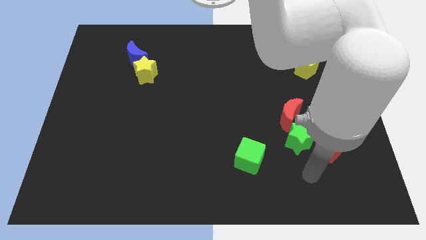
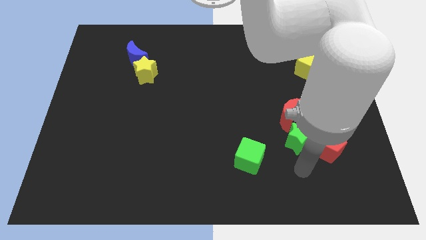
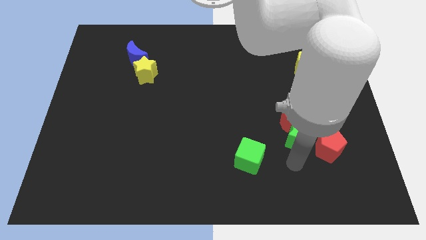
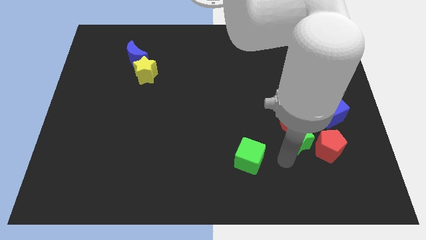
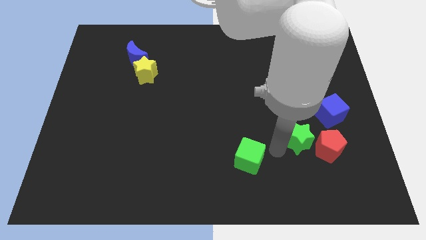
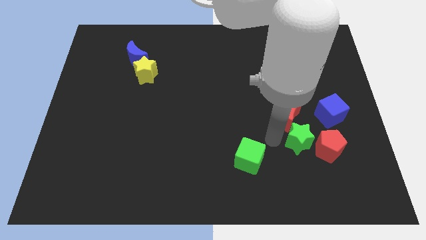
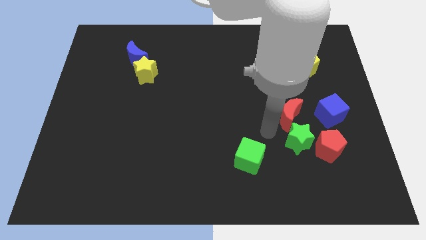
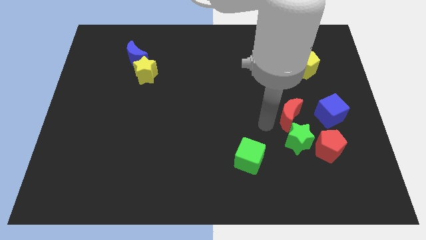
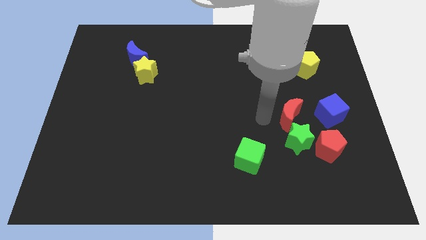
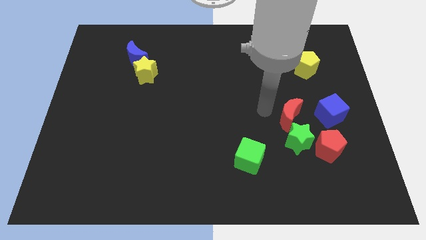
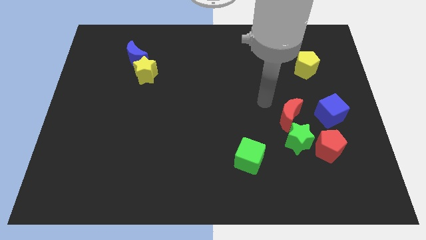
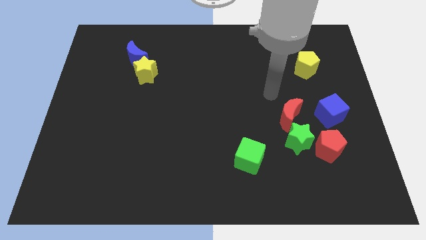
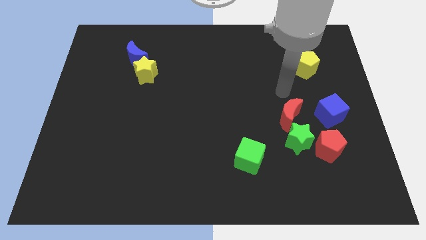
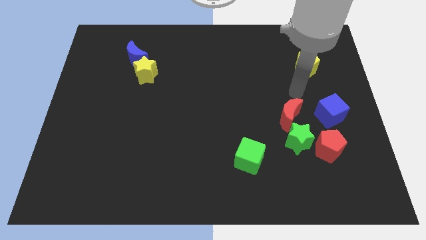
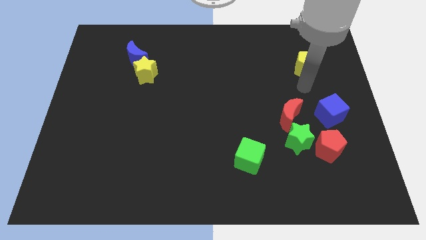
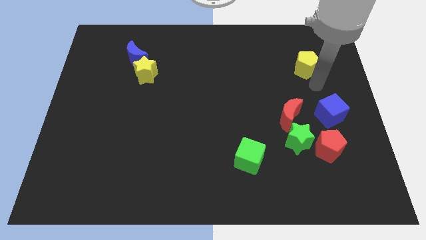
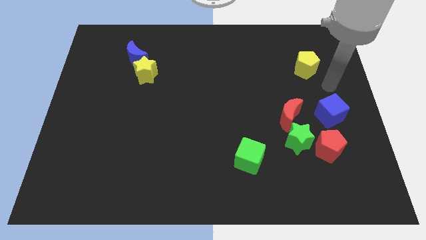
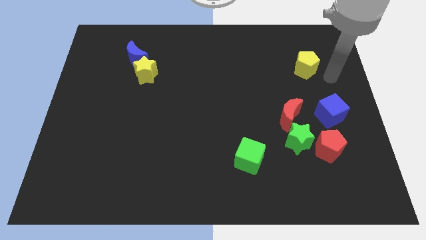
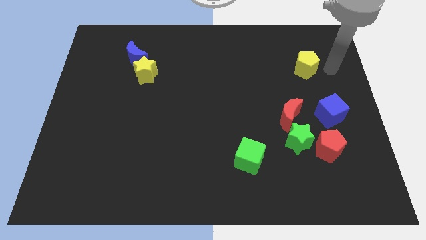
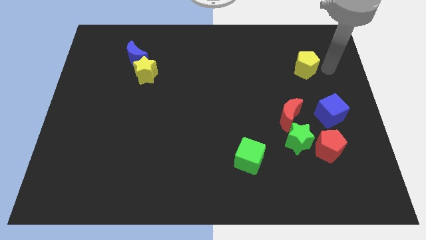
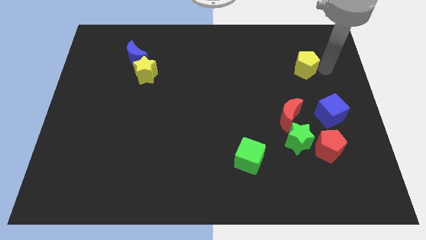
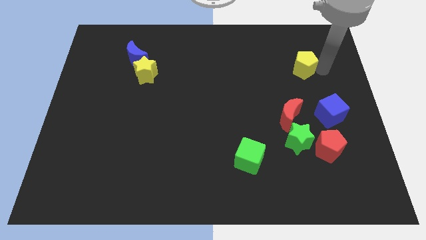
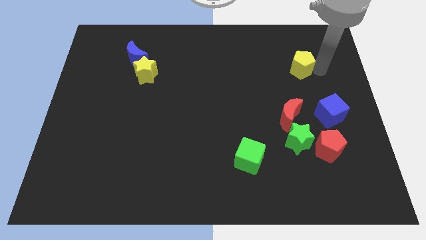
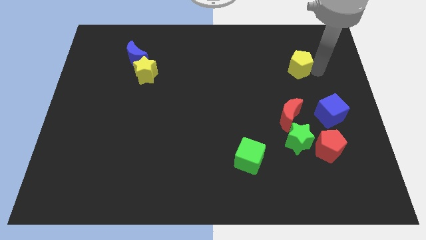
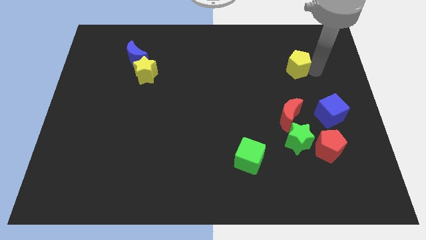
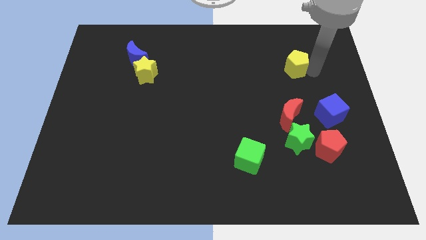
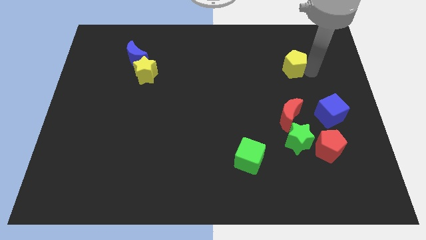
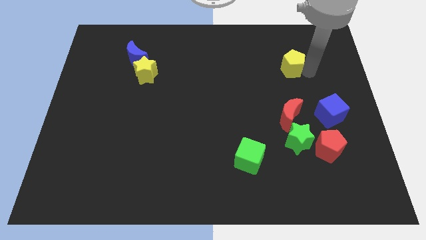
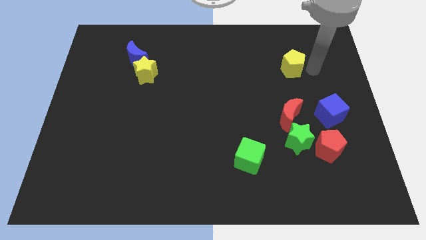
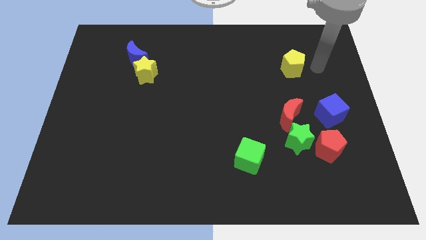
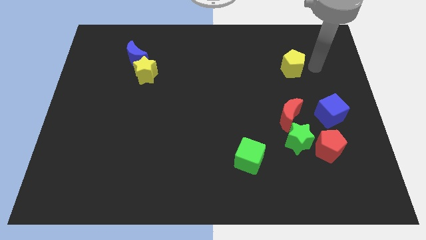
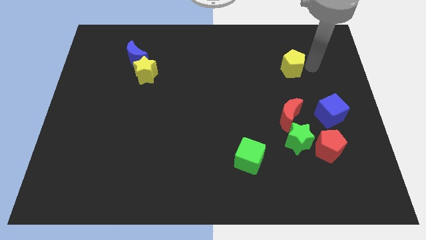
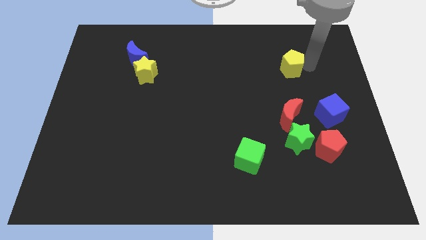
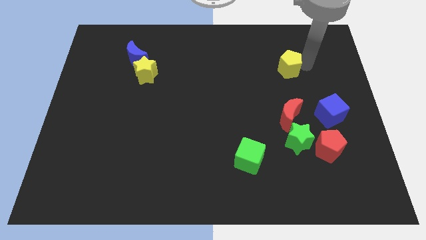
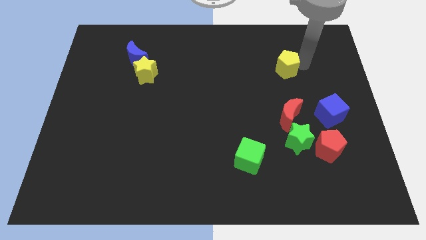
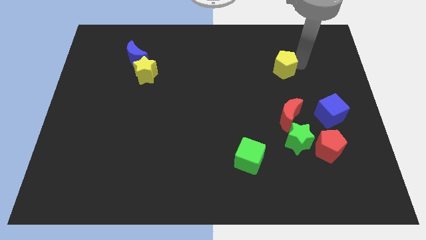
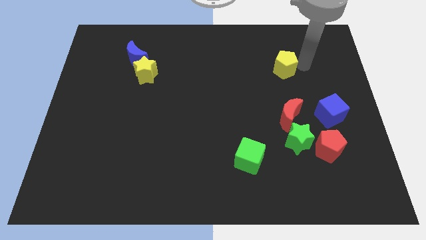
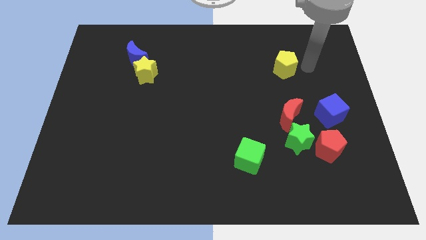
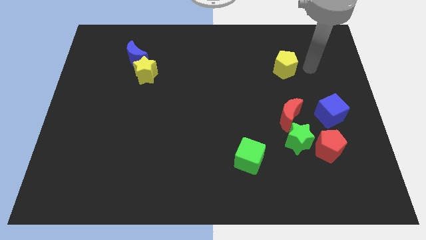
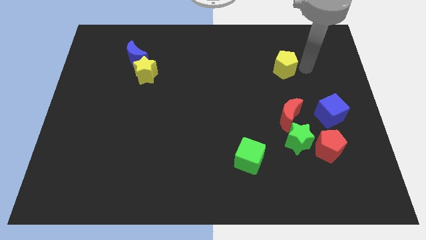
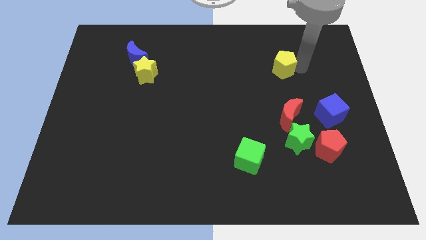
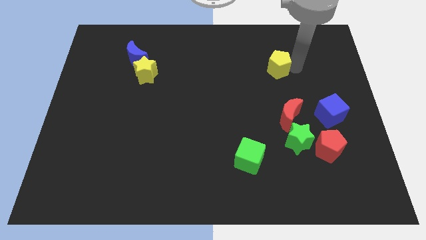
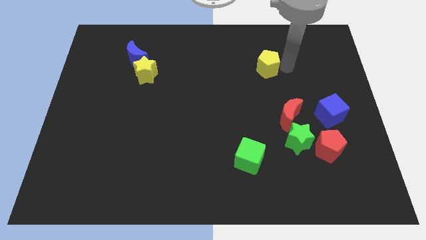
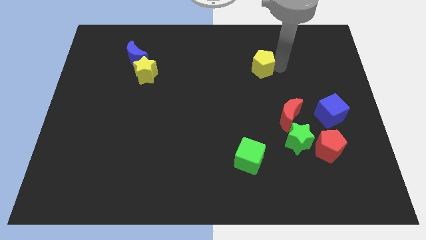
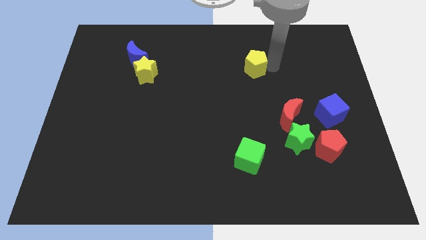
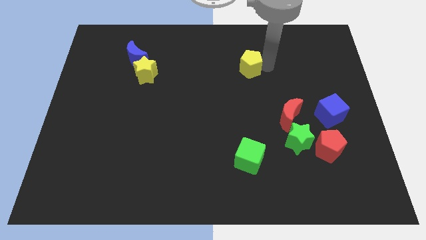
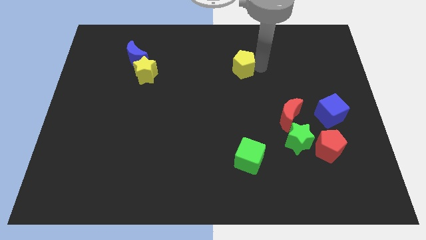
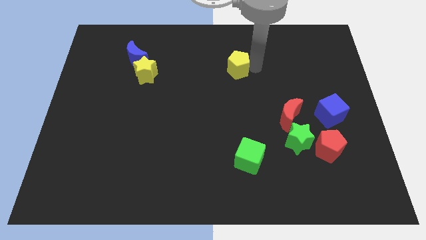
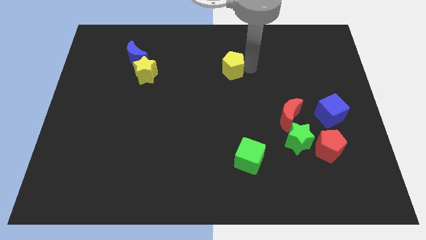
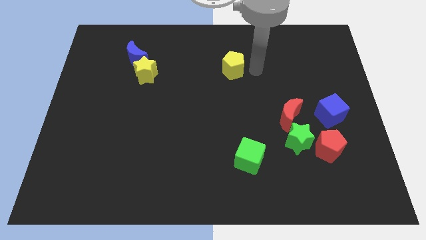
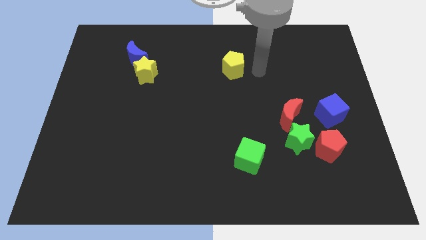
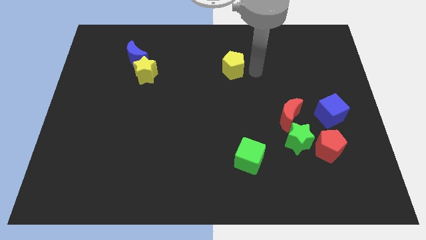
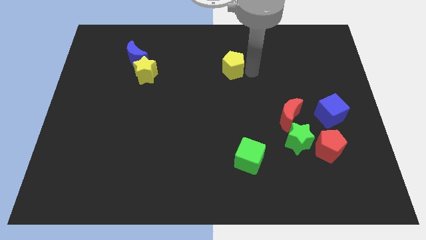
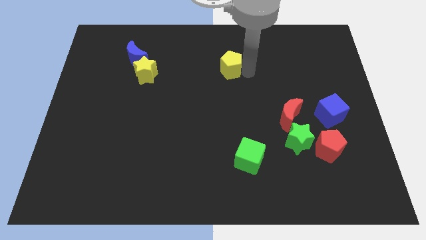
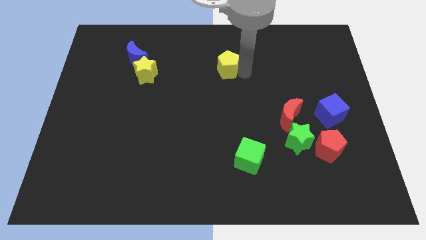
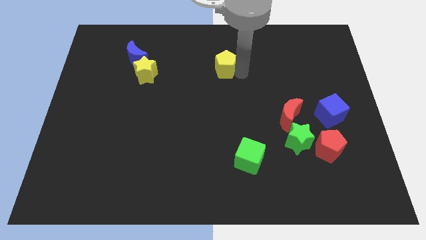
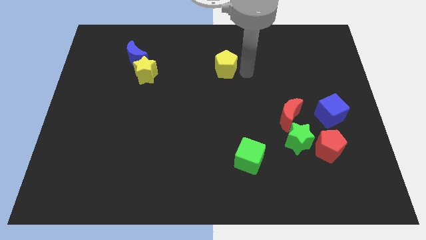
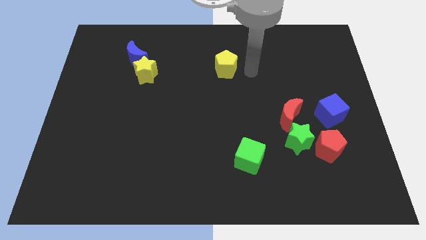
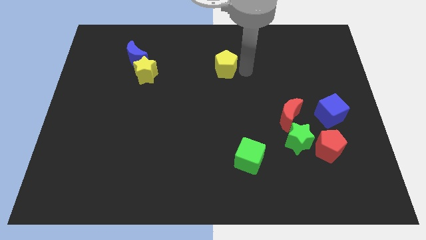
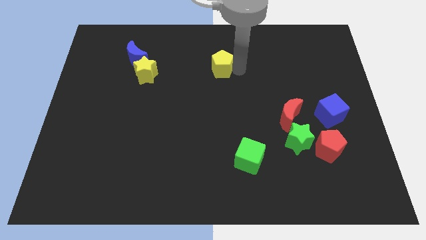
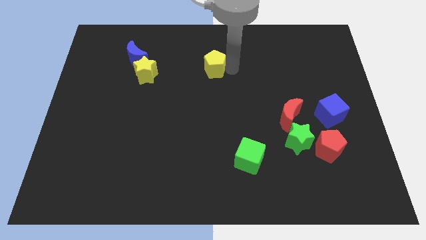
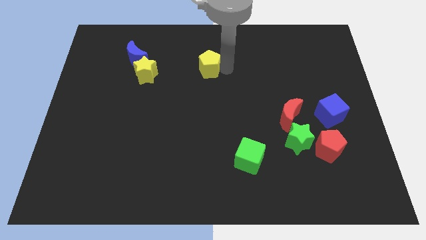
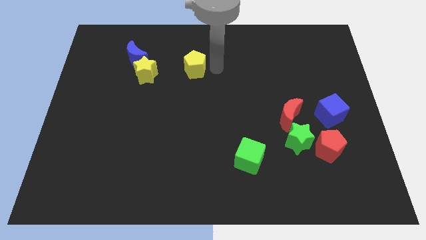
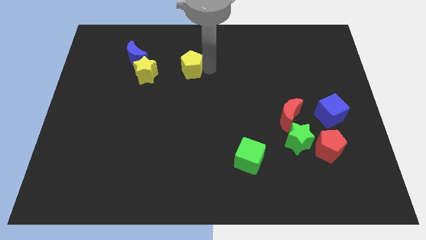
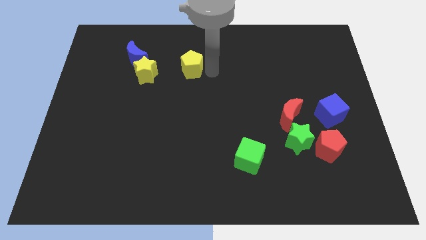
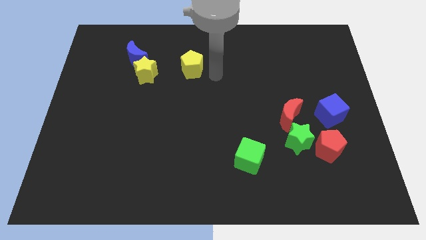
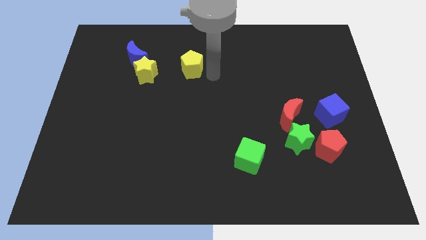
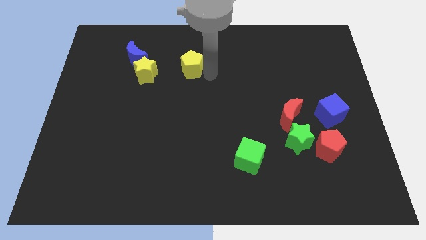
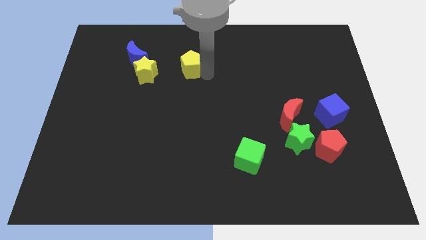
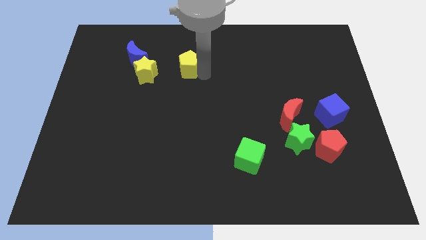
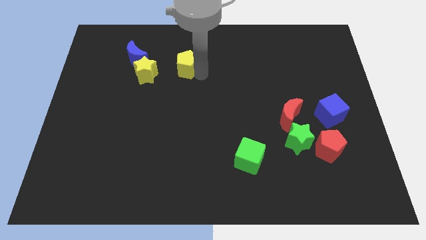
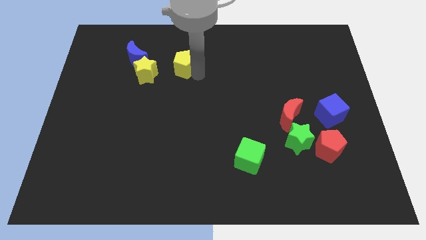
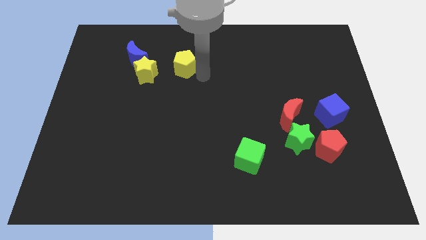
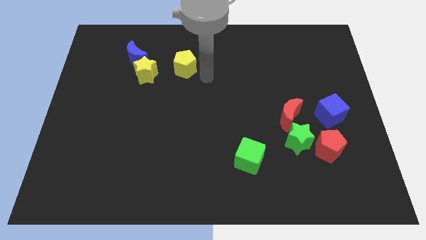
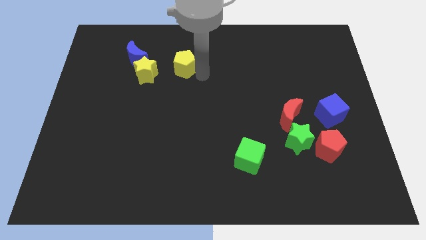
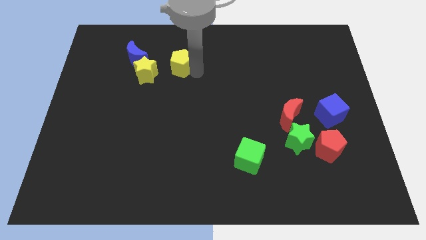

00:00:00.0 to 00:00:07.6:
slide the yellow pentagon to the top right of the yellow star
